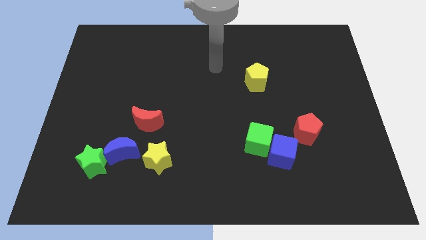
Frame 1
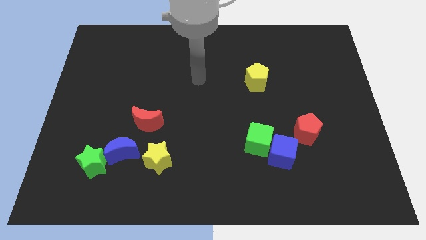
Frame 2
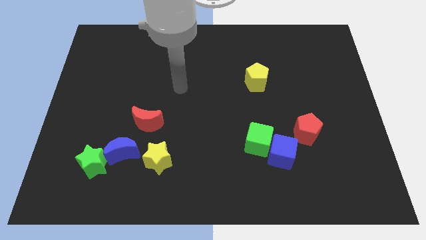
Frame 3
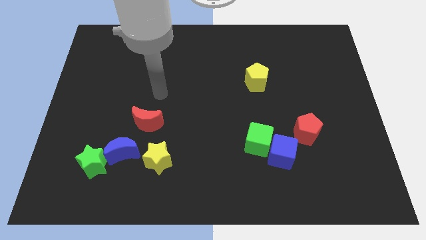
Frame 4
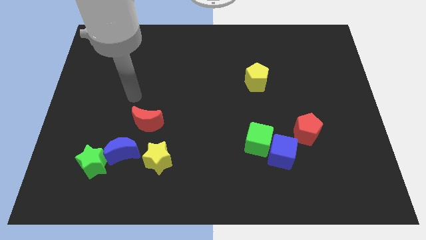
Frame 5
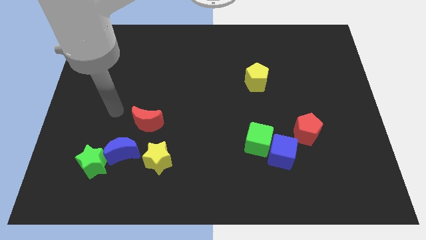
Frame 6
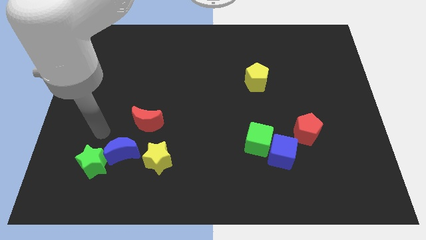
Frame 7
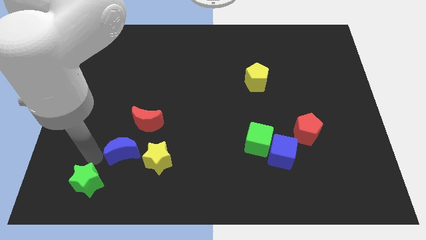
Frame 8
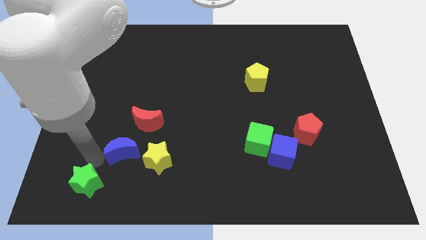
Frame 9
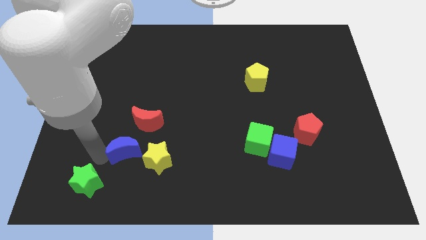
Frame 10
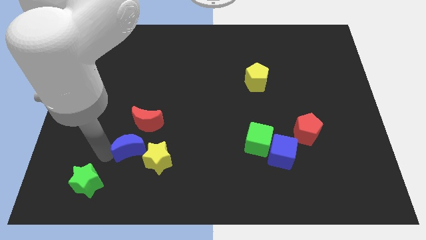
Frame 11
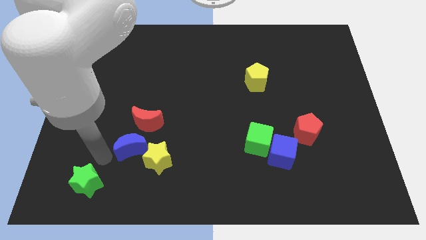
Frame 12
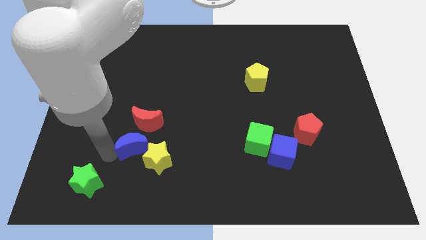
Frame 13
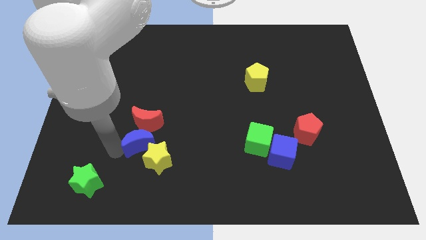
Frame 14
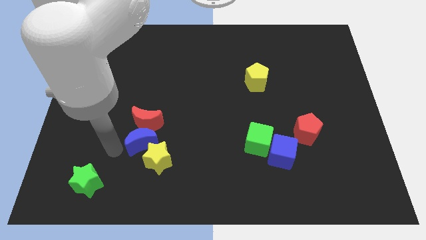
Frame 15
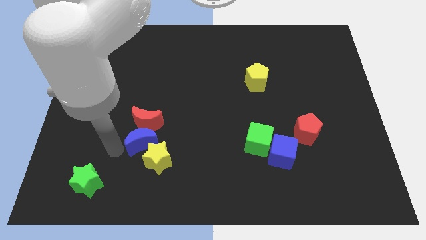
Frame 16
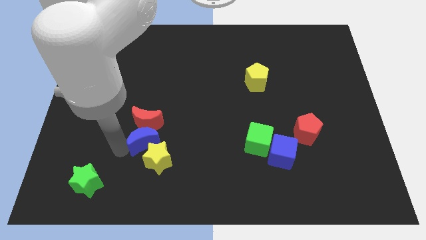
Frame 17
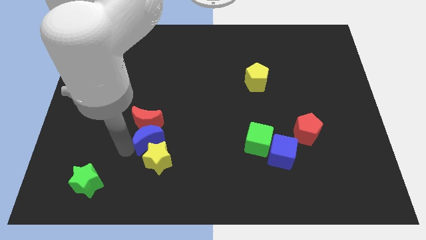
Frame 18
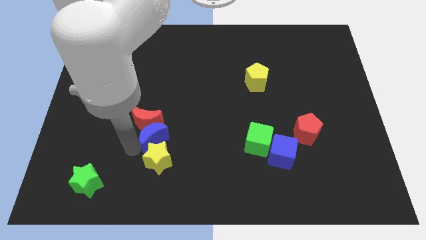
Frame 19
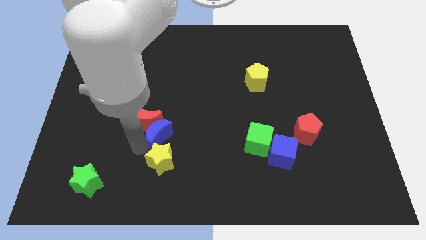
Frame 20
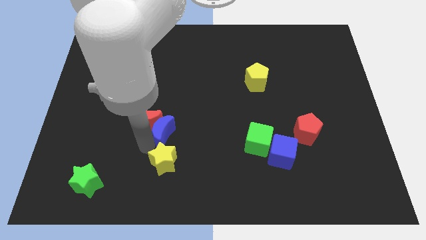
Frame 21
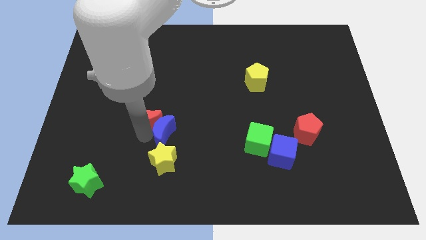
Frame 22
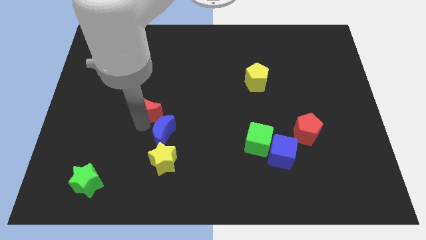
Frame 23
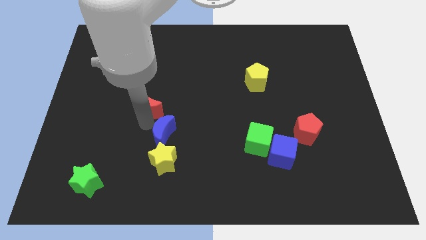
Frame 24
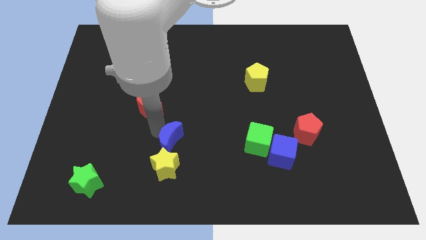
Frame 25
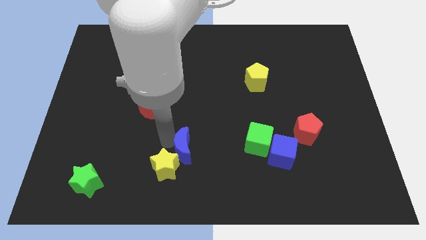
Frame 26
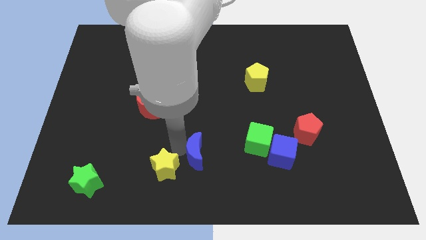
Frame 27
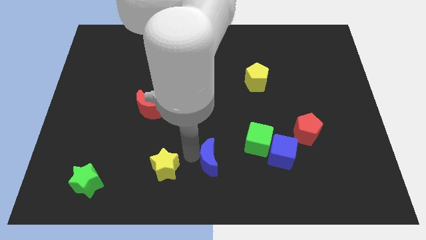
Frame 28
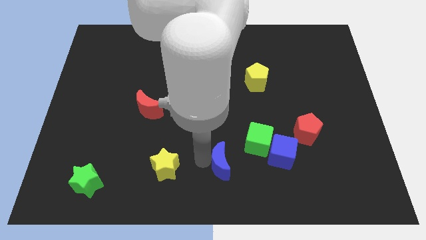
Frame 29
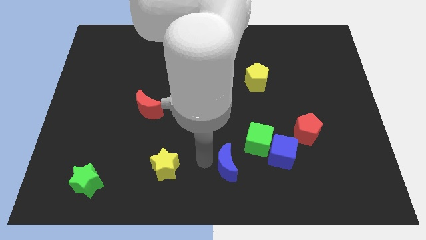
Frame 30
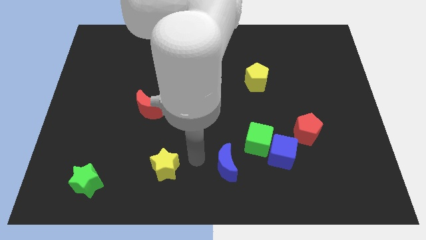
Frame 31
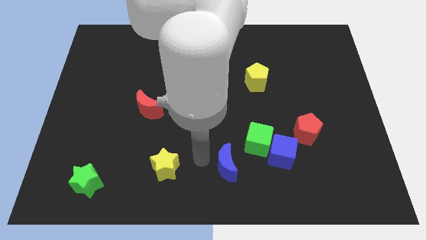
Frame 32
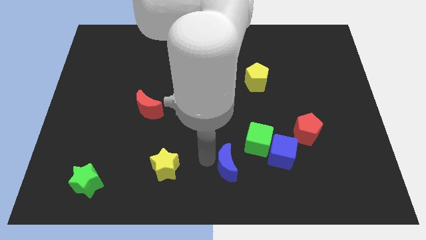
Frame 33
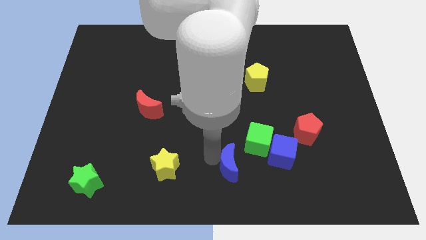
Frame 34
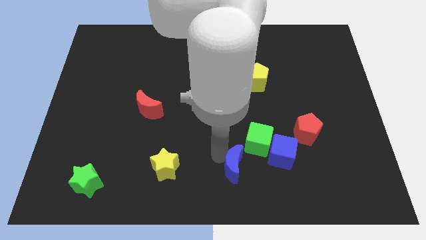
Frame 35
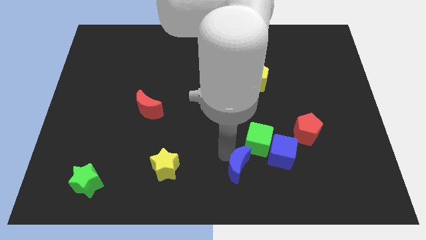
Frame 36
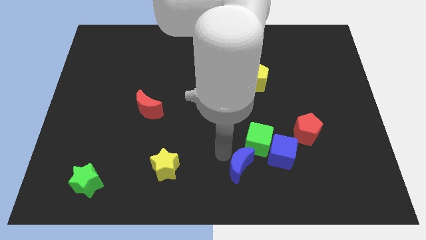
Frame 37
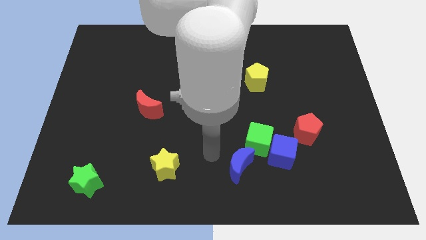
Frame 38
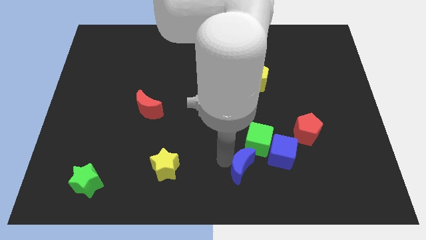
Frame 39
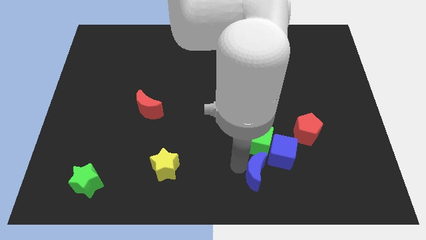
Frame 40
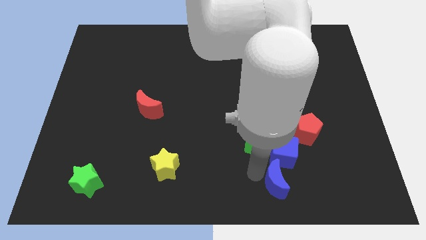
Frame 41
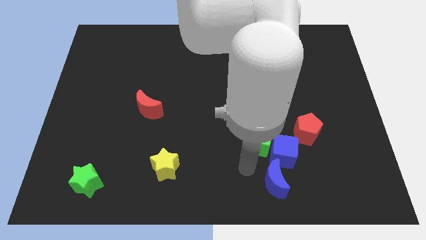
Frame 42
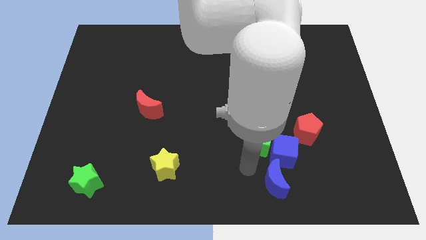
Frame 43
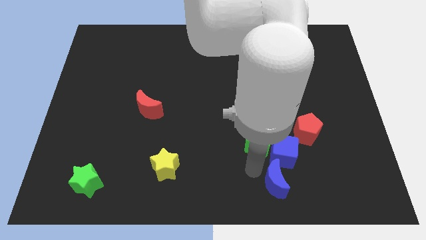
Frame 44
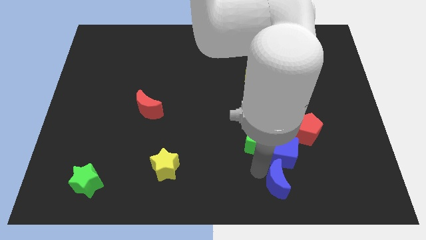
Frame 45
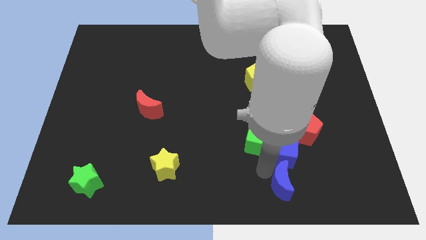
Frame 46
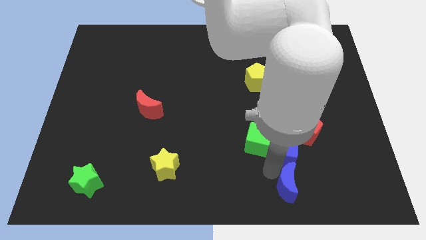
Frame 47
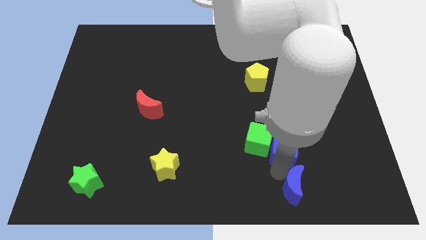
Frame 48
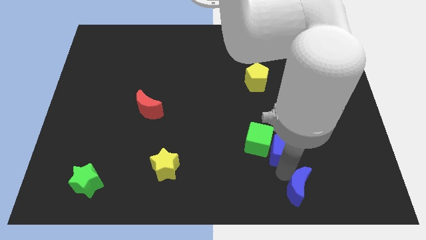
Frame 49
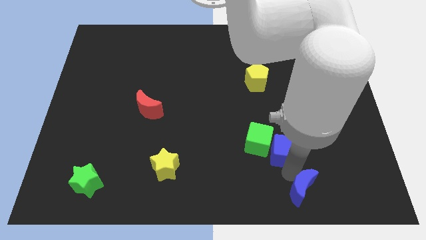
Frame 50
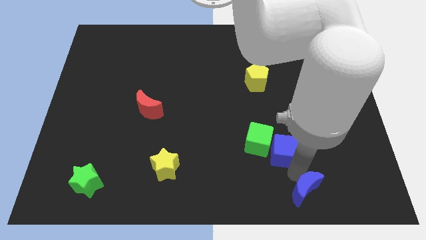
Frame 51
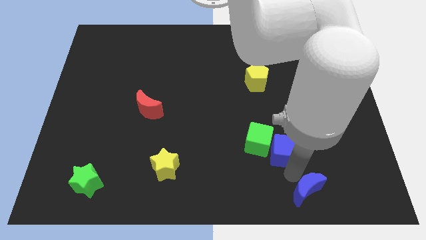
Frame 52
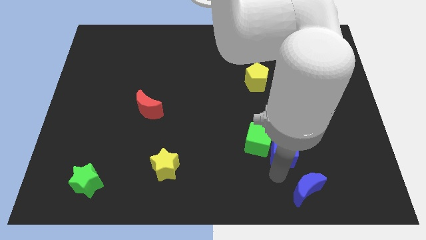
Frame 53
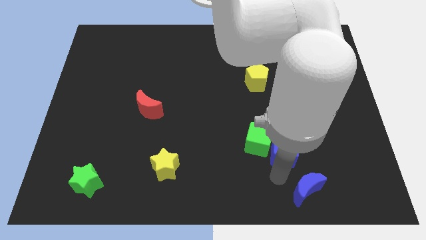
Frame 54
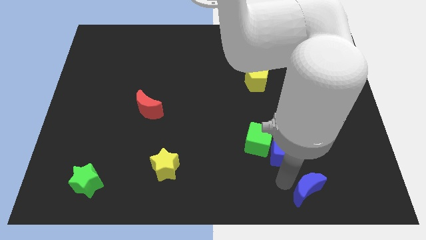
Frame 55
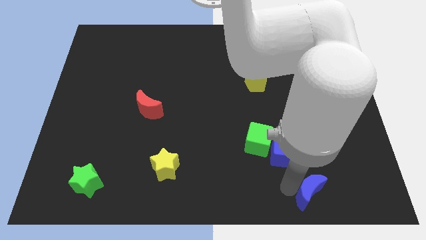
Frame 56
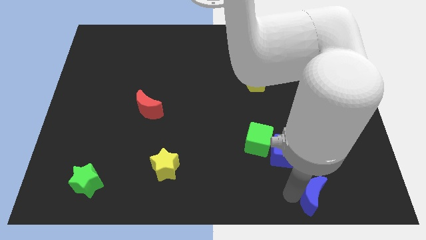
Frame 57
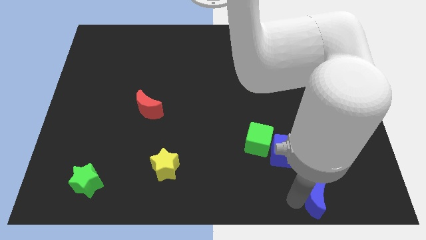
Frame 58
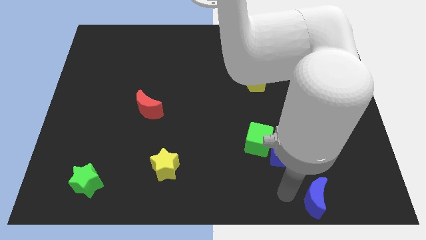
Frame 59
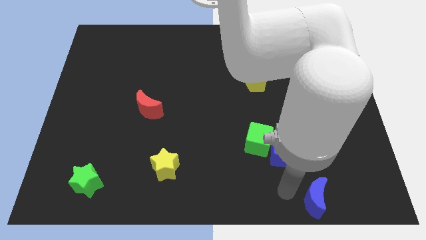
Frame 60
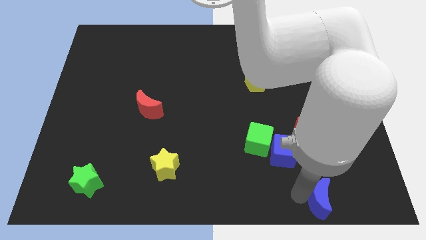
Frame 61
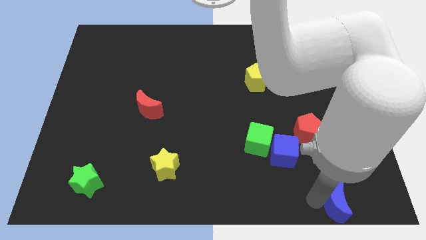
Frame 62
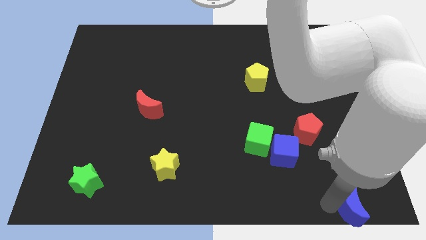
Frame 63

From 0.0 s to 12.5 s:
push the blue moon to the bottom right
